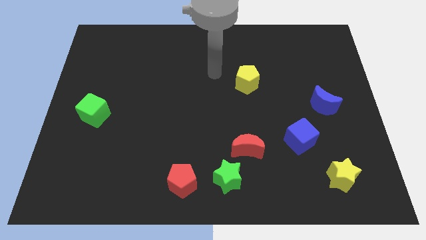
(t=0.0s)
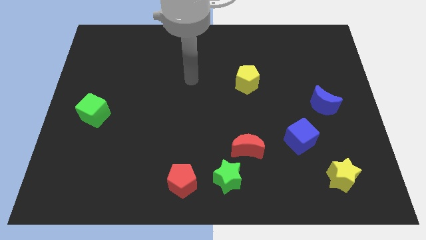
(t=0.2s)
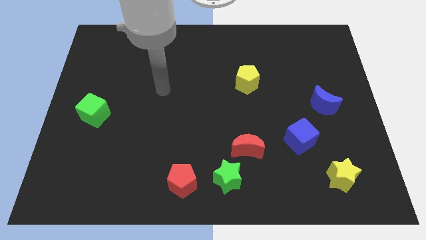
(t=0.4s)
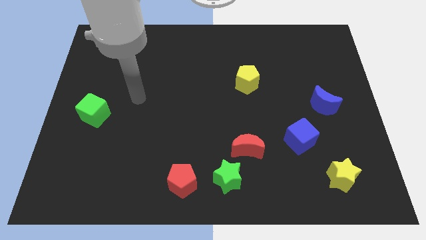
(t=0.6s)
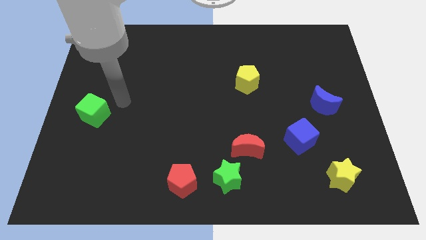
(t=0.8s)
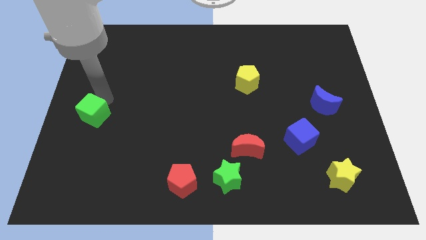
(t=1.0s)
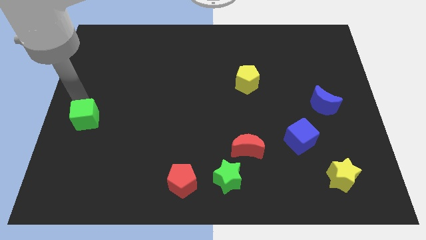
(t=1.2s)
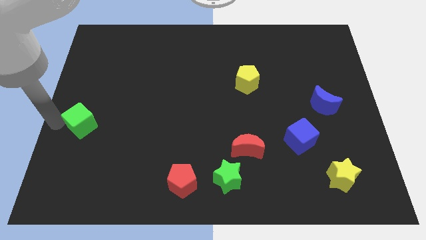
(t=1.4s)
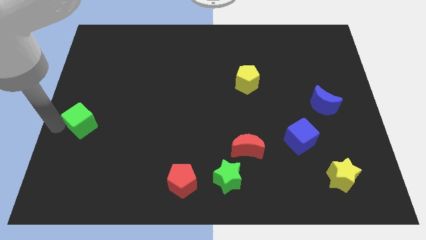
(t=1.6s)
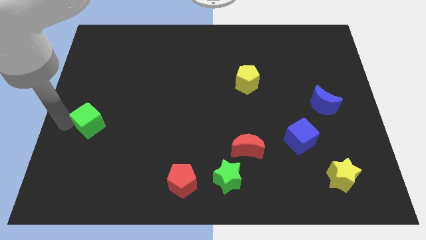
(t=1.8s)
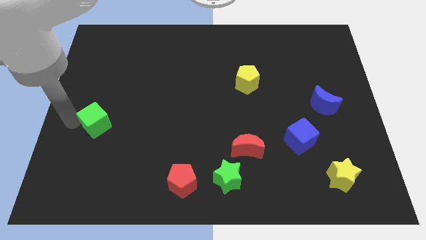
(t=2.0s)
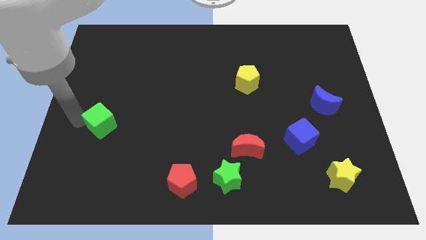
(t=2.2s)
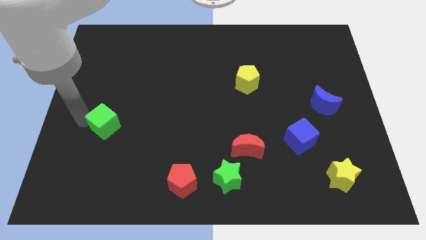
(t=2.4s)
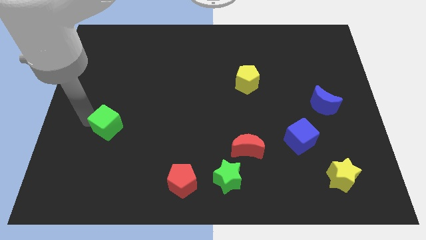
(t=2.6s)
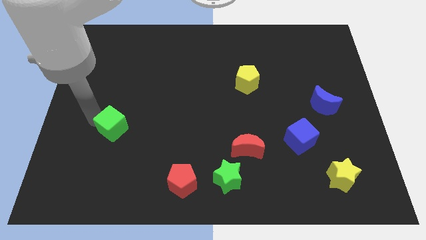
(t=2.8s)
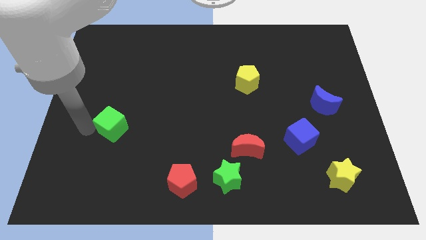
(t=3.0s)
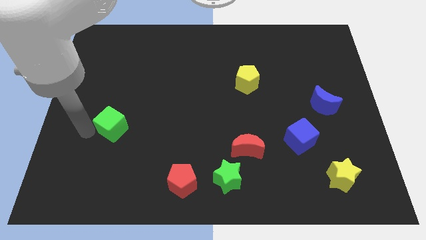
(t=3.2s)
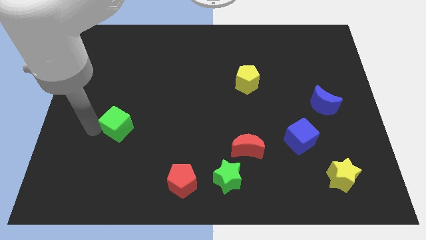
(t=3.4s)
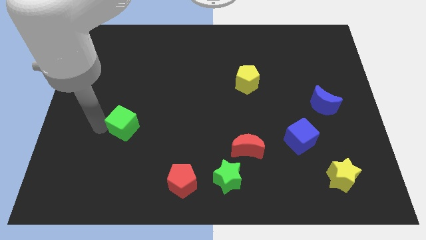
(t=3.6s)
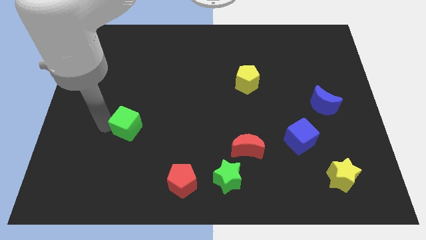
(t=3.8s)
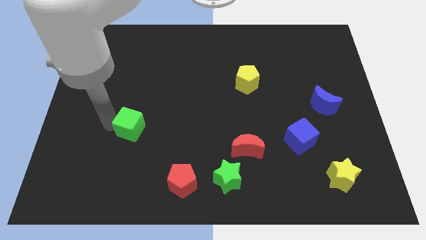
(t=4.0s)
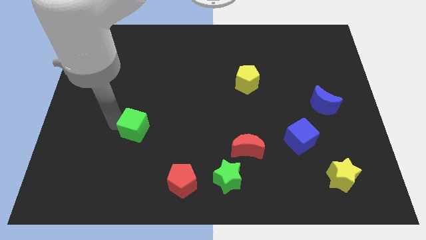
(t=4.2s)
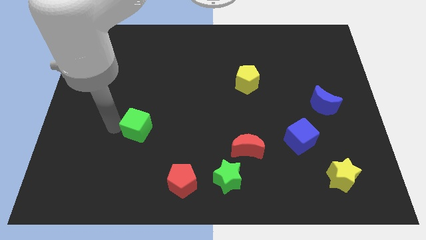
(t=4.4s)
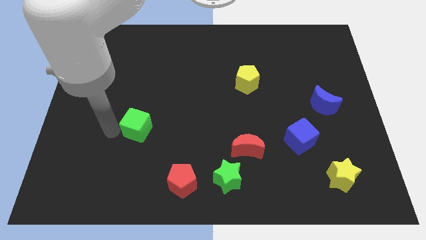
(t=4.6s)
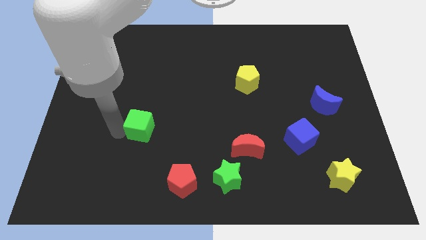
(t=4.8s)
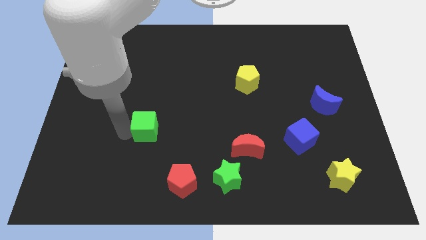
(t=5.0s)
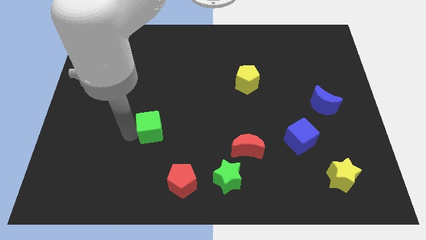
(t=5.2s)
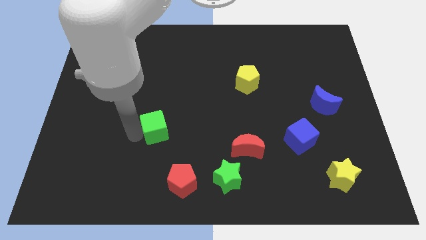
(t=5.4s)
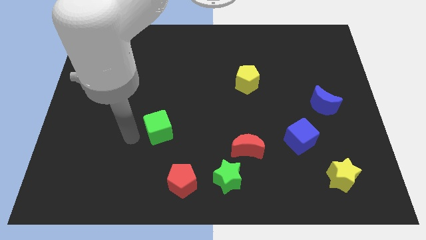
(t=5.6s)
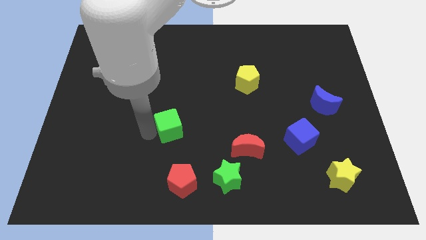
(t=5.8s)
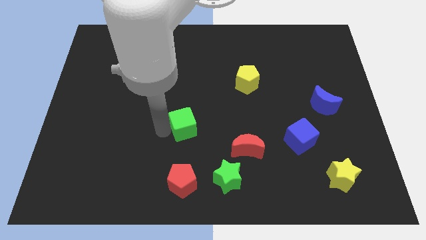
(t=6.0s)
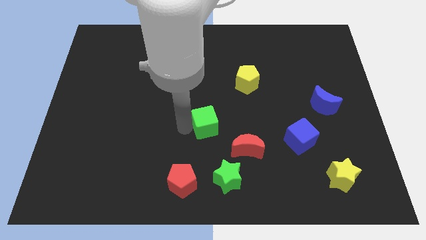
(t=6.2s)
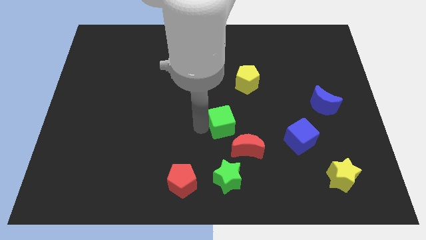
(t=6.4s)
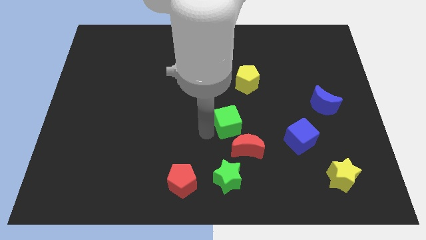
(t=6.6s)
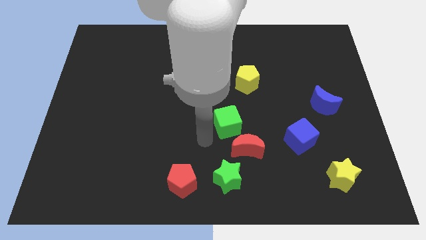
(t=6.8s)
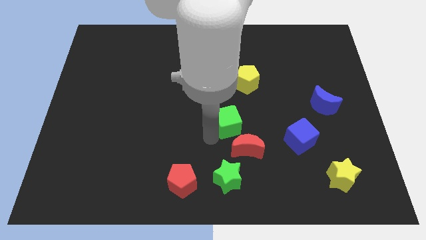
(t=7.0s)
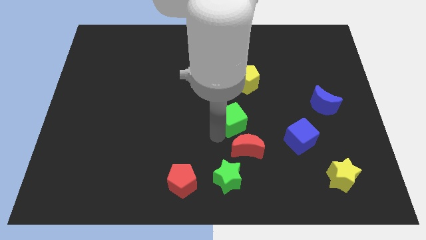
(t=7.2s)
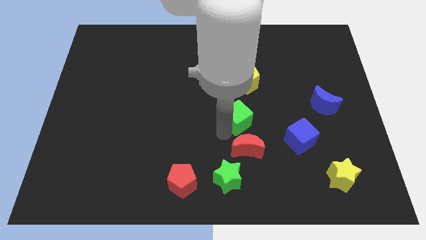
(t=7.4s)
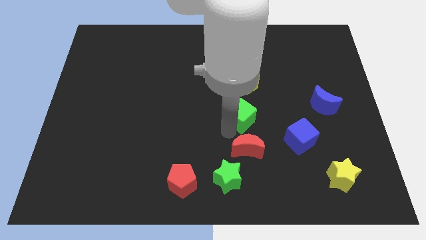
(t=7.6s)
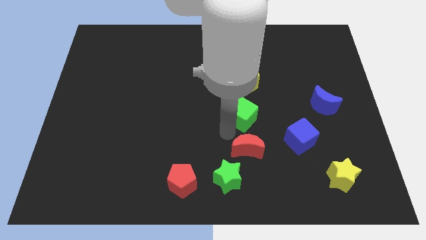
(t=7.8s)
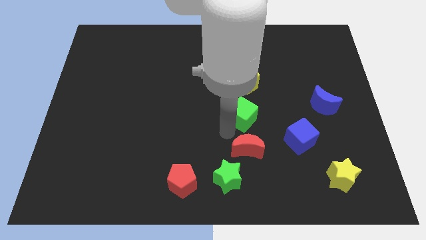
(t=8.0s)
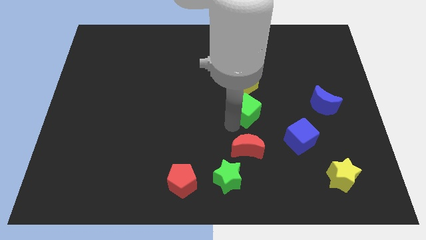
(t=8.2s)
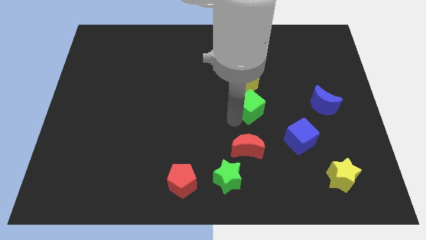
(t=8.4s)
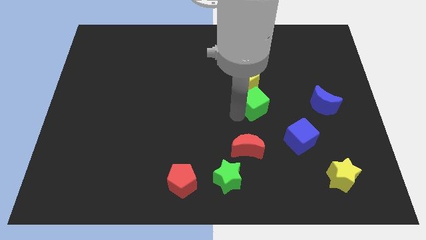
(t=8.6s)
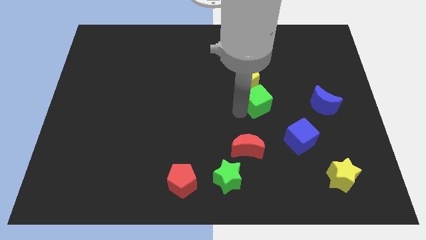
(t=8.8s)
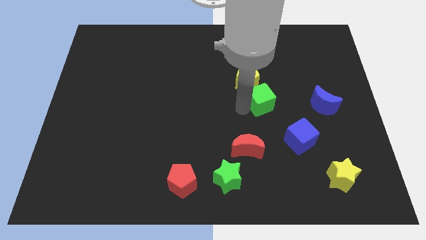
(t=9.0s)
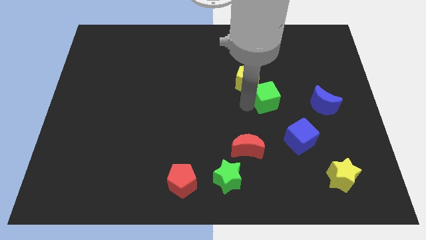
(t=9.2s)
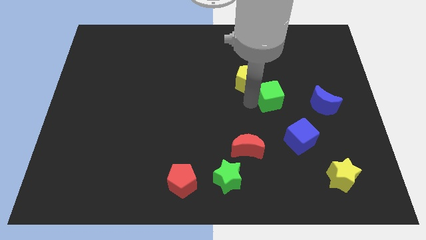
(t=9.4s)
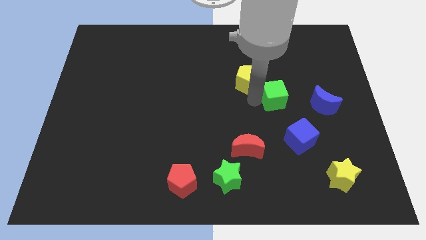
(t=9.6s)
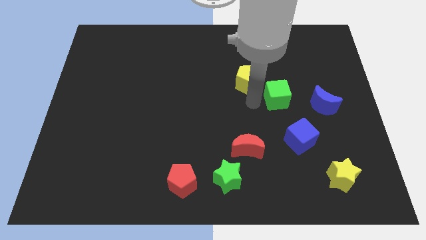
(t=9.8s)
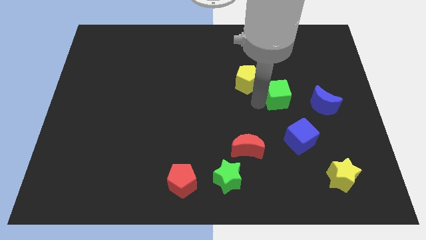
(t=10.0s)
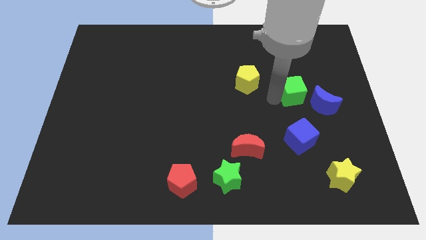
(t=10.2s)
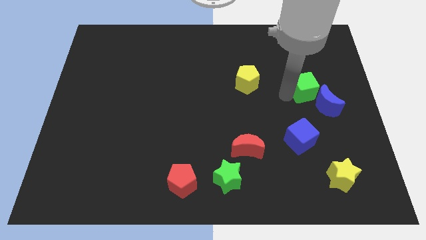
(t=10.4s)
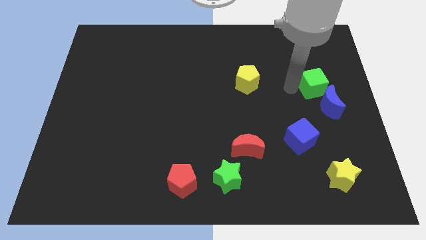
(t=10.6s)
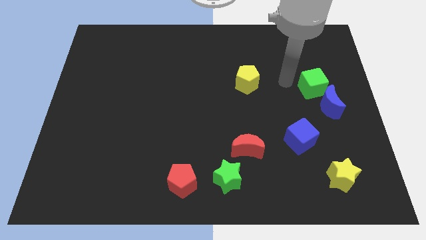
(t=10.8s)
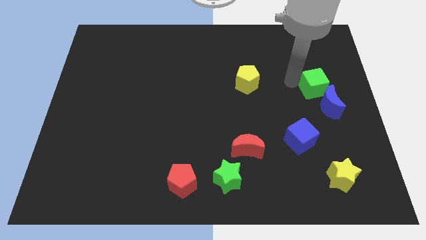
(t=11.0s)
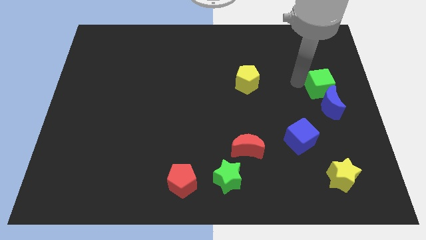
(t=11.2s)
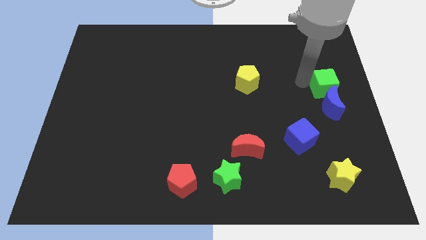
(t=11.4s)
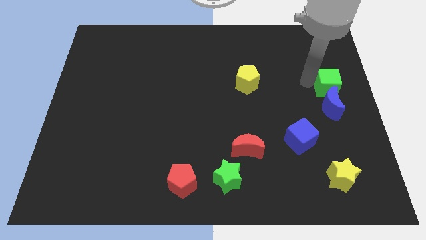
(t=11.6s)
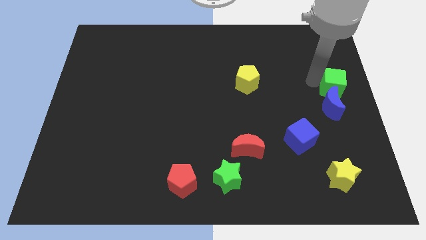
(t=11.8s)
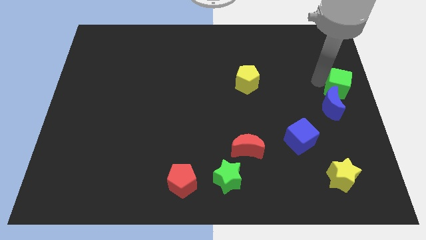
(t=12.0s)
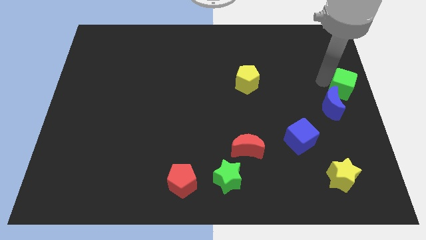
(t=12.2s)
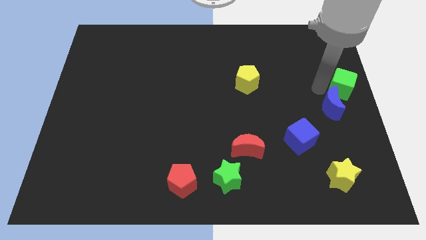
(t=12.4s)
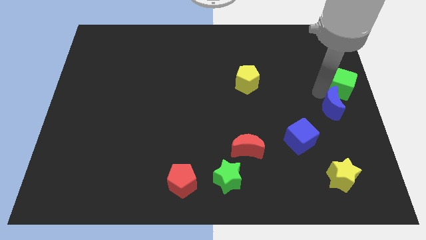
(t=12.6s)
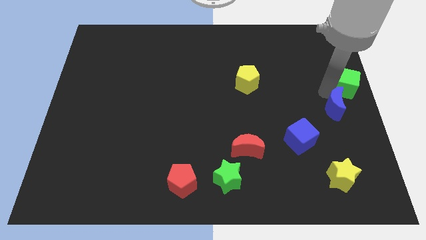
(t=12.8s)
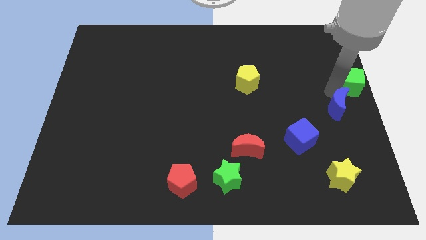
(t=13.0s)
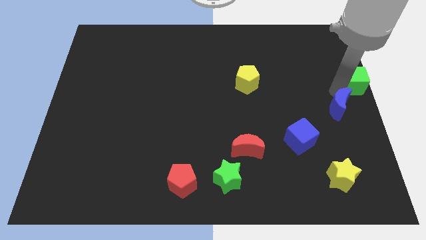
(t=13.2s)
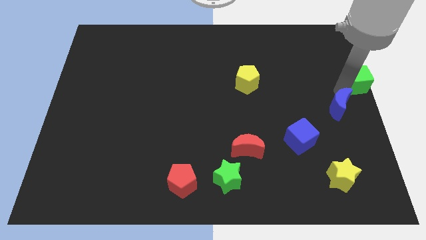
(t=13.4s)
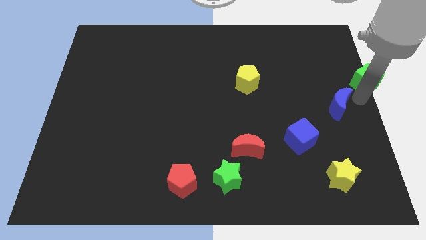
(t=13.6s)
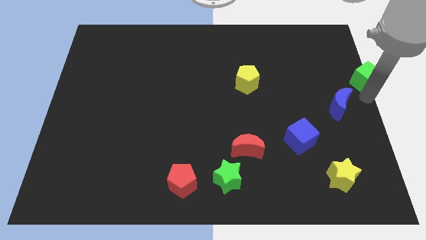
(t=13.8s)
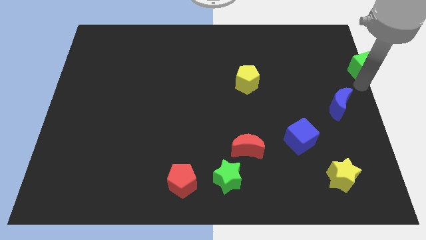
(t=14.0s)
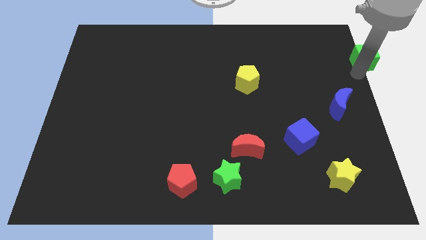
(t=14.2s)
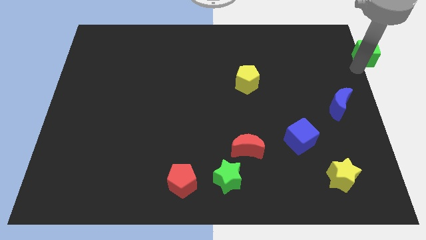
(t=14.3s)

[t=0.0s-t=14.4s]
push the green cube to the top right of the board
